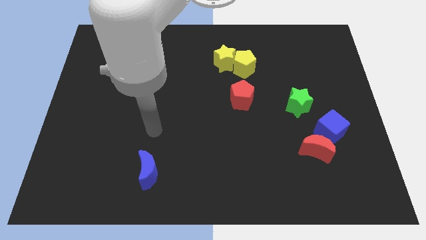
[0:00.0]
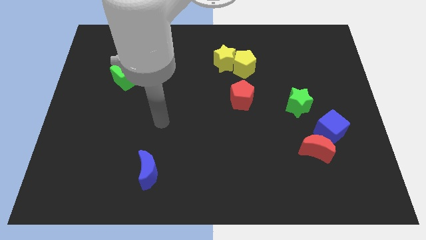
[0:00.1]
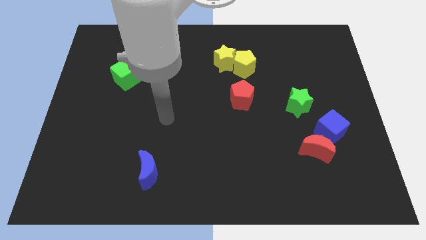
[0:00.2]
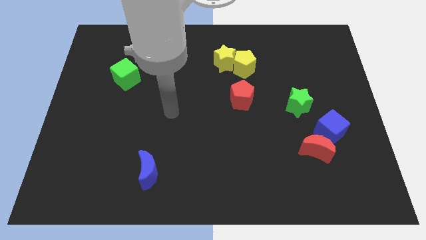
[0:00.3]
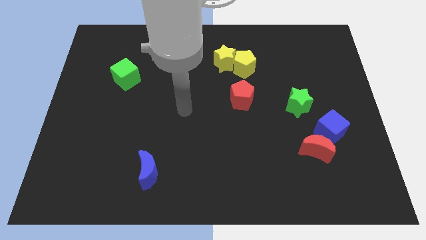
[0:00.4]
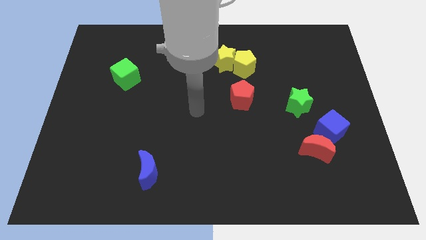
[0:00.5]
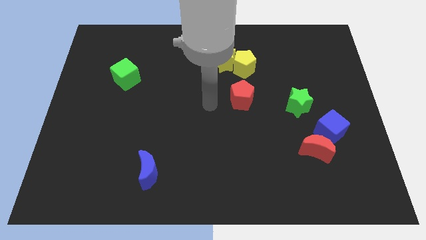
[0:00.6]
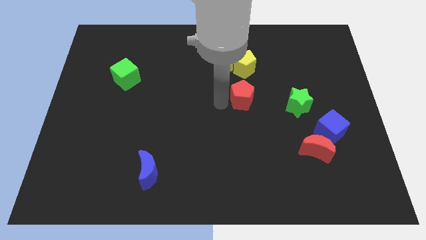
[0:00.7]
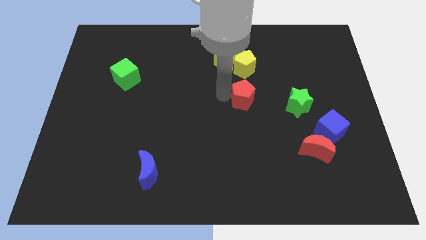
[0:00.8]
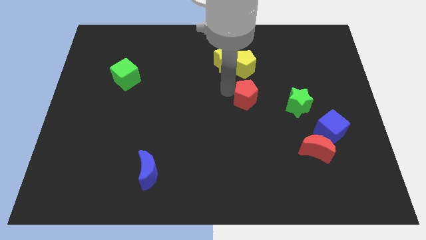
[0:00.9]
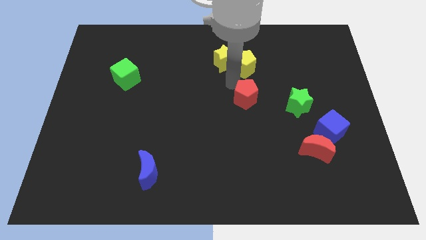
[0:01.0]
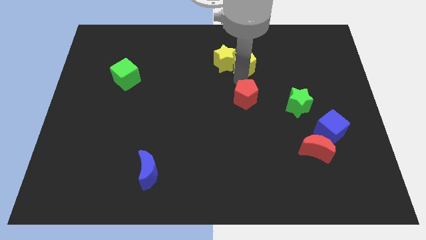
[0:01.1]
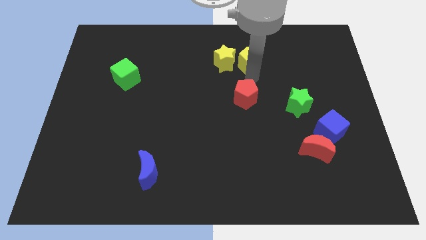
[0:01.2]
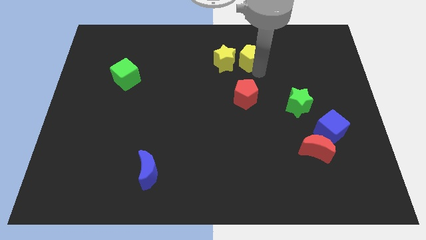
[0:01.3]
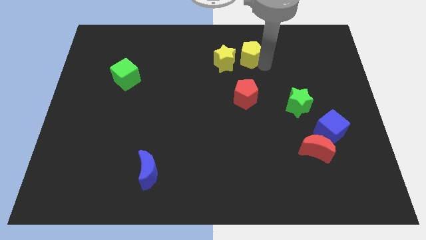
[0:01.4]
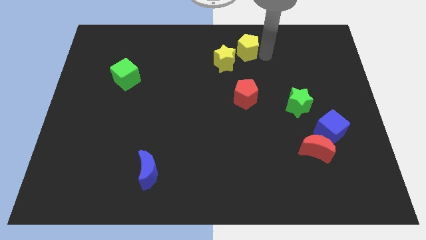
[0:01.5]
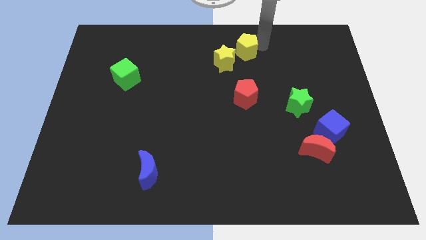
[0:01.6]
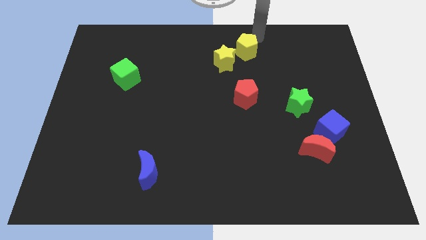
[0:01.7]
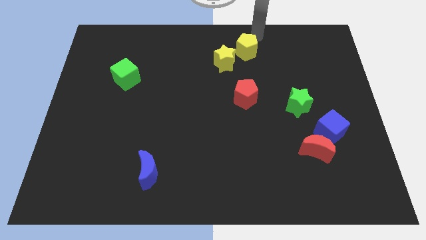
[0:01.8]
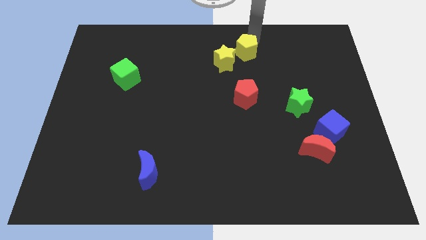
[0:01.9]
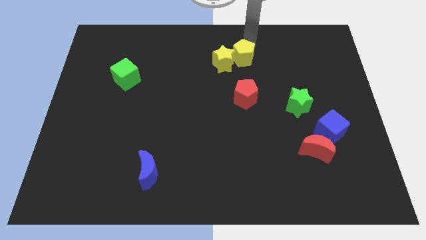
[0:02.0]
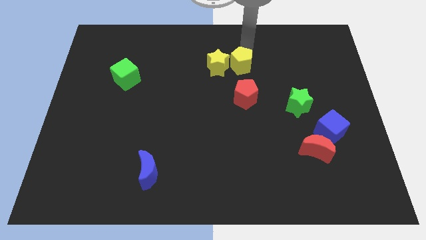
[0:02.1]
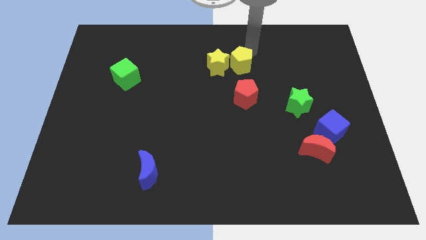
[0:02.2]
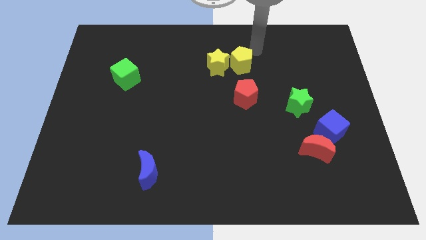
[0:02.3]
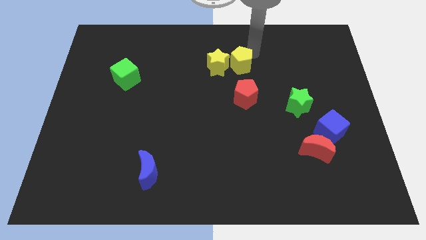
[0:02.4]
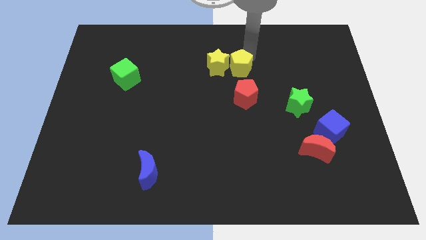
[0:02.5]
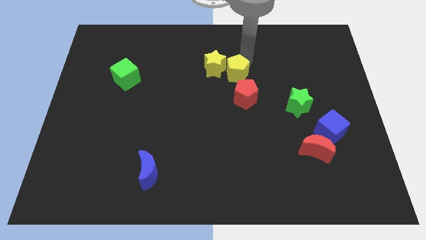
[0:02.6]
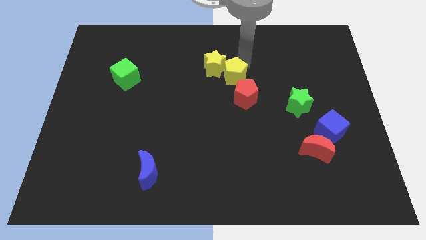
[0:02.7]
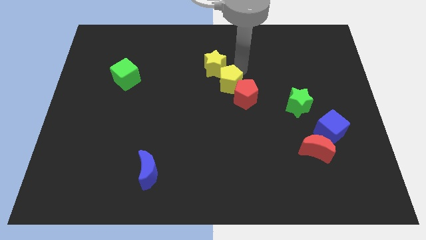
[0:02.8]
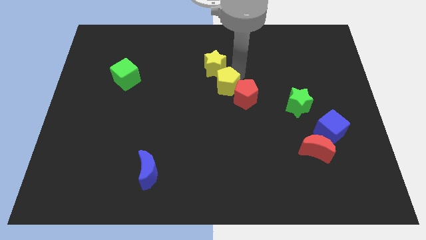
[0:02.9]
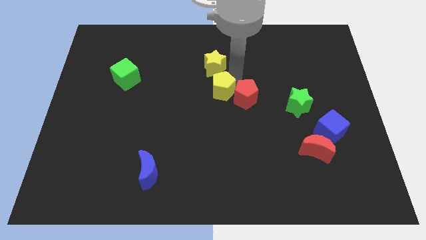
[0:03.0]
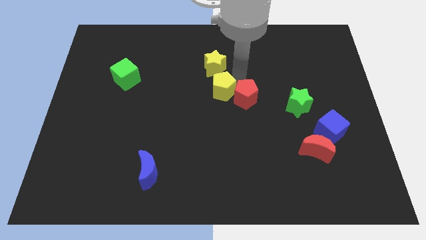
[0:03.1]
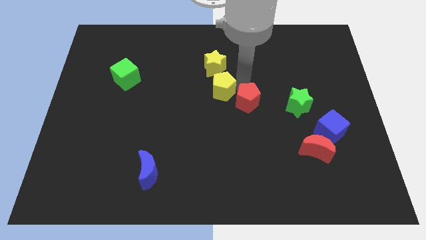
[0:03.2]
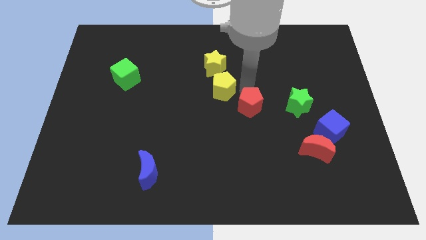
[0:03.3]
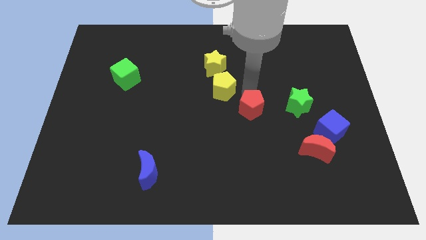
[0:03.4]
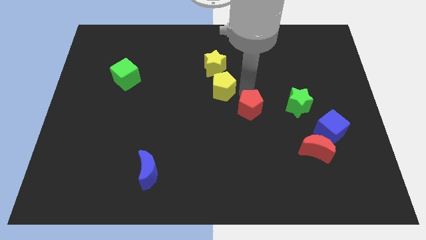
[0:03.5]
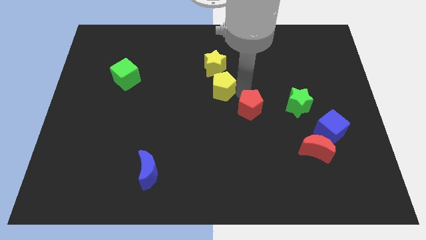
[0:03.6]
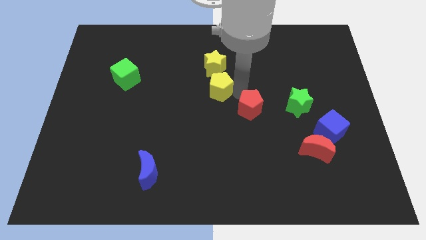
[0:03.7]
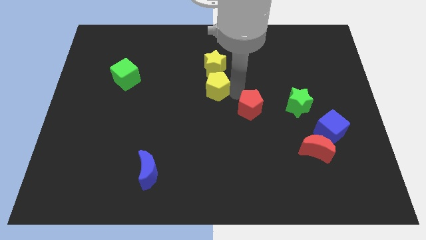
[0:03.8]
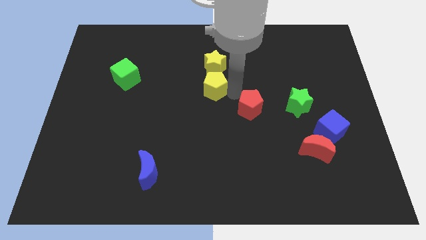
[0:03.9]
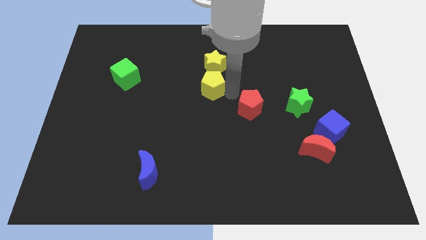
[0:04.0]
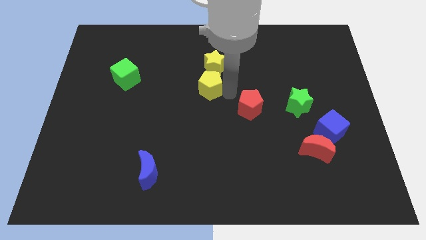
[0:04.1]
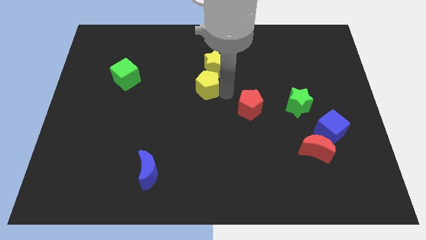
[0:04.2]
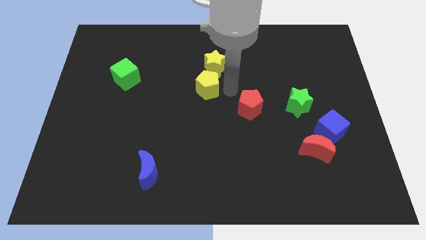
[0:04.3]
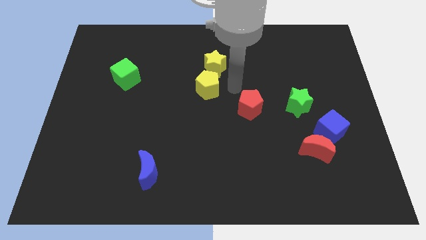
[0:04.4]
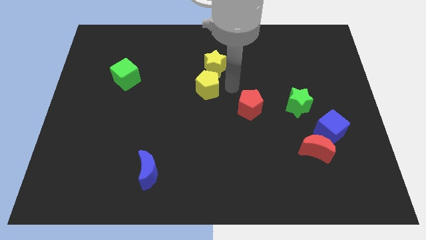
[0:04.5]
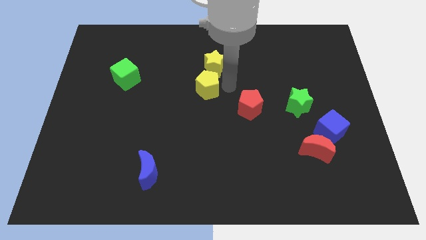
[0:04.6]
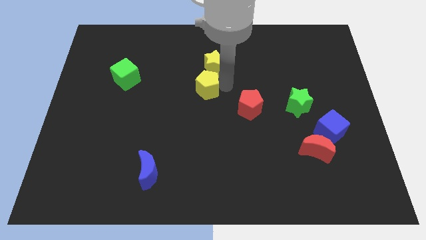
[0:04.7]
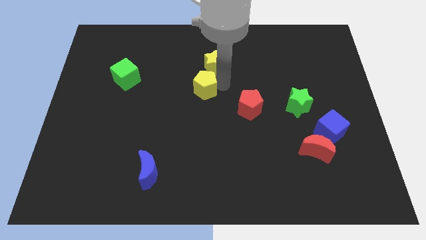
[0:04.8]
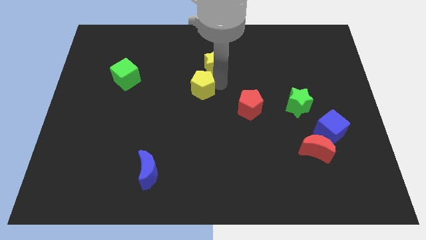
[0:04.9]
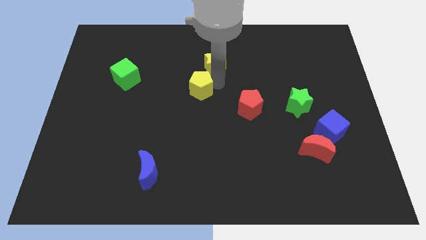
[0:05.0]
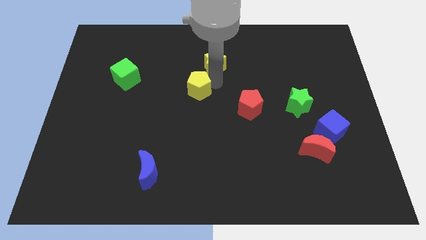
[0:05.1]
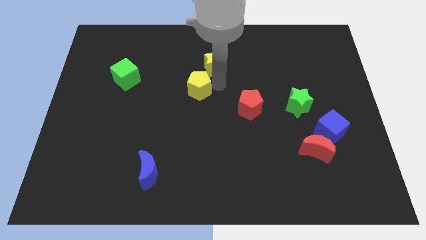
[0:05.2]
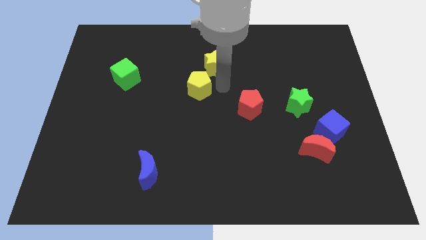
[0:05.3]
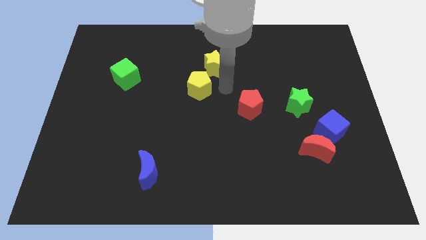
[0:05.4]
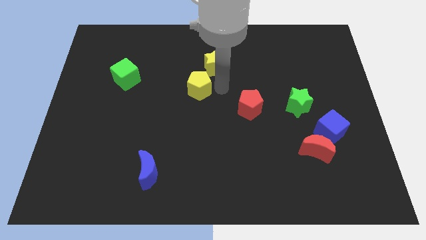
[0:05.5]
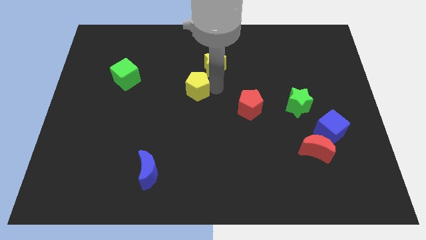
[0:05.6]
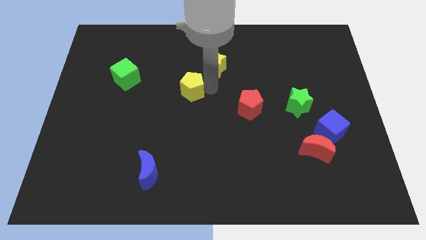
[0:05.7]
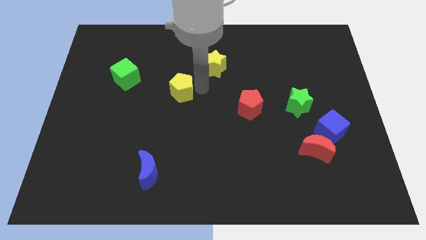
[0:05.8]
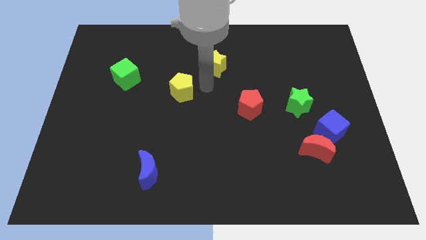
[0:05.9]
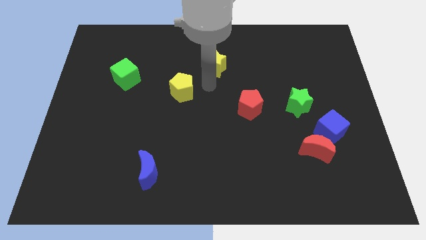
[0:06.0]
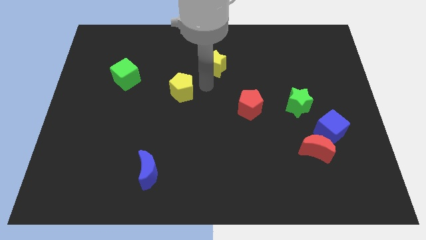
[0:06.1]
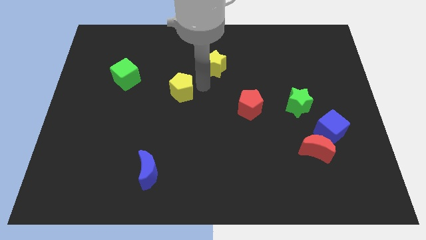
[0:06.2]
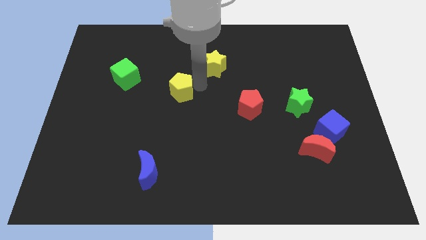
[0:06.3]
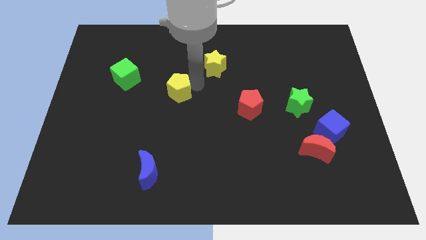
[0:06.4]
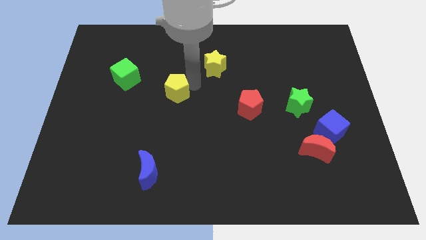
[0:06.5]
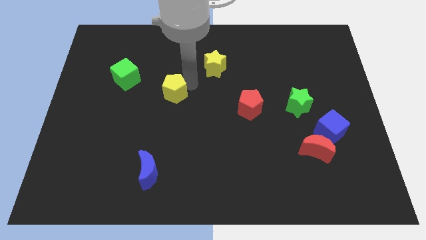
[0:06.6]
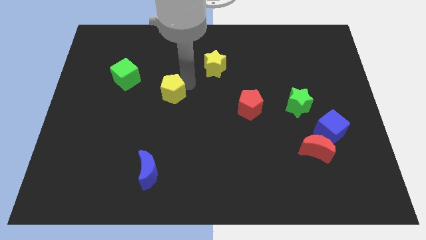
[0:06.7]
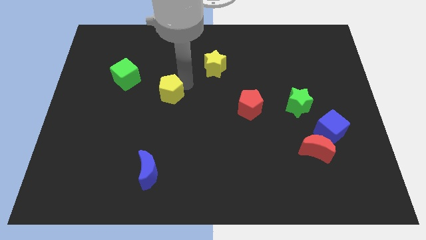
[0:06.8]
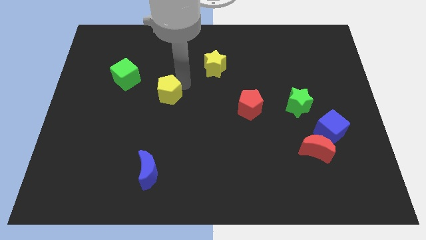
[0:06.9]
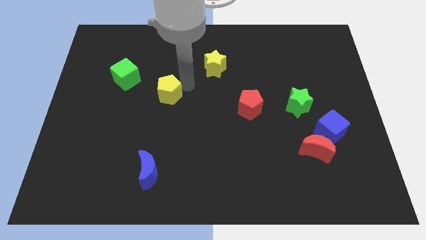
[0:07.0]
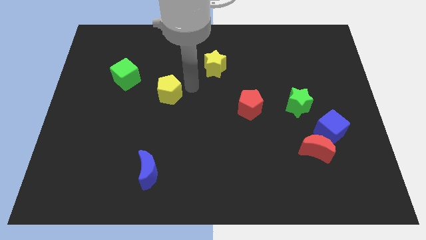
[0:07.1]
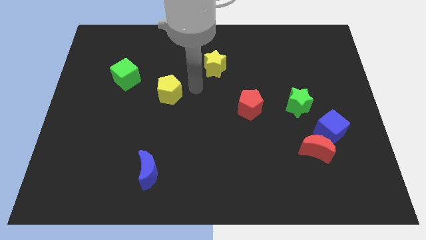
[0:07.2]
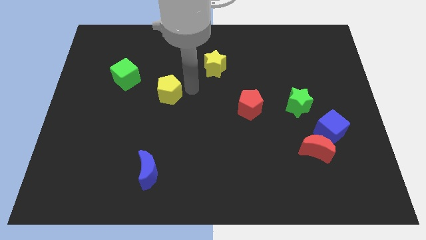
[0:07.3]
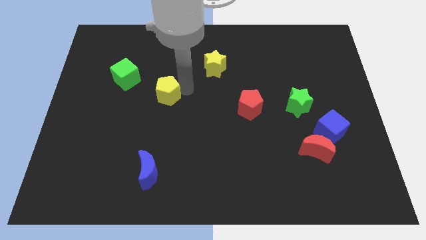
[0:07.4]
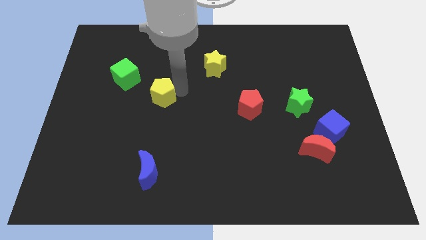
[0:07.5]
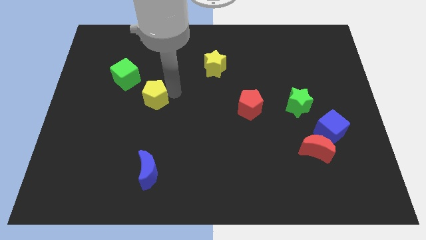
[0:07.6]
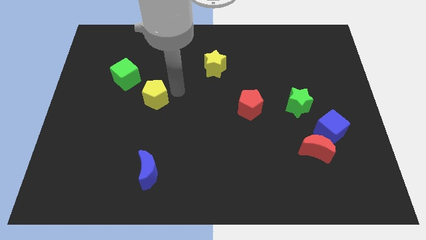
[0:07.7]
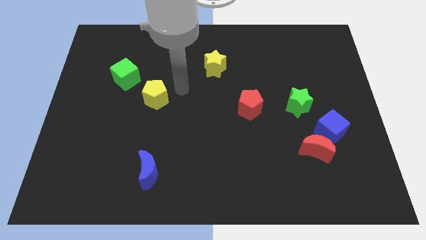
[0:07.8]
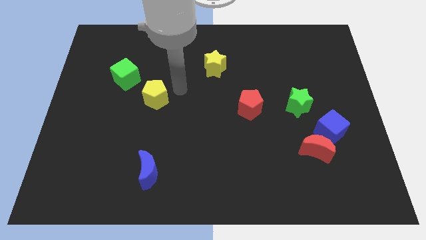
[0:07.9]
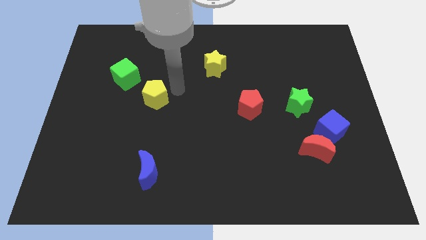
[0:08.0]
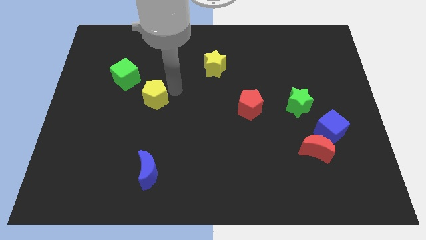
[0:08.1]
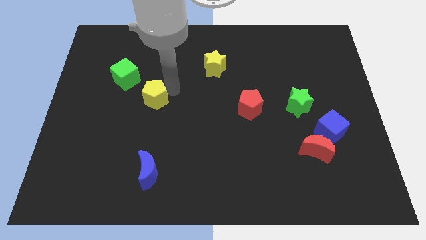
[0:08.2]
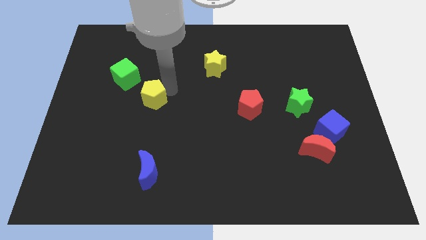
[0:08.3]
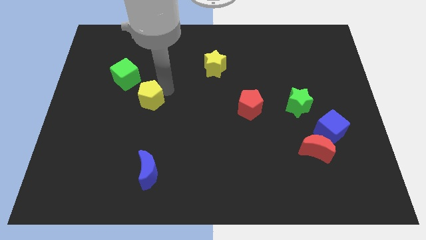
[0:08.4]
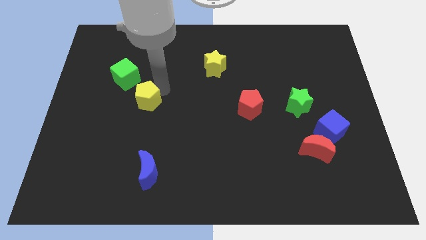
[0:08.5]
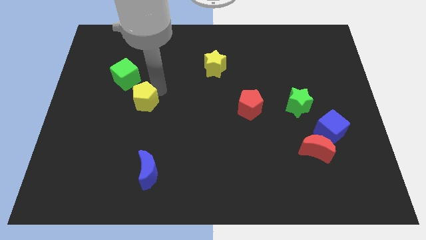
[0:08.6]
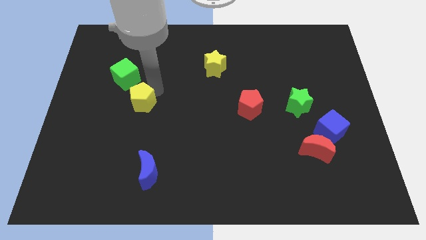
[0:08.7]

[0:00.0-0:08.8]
slide the yellow pentagon to the bottom side of the green cube
